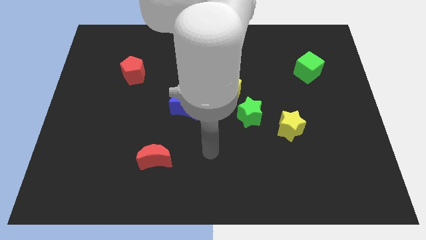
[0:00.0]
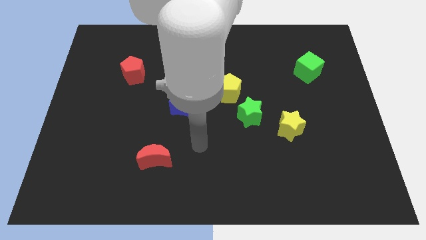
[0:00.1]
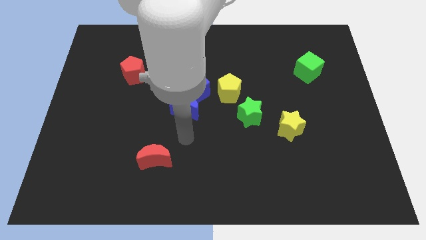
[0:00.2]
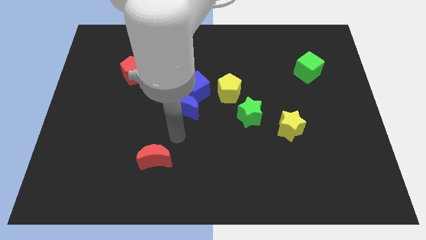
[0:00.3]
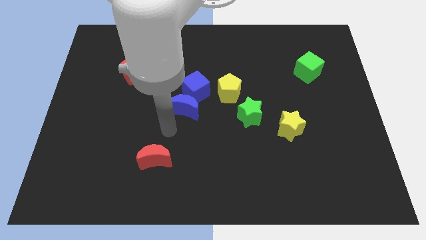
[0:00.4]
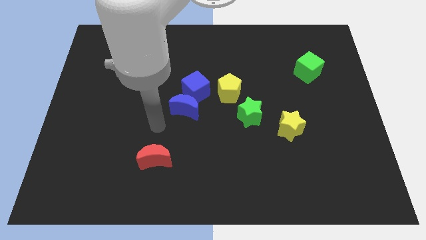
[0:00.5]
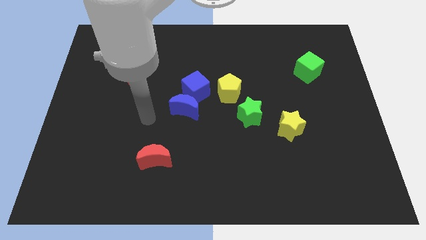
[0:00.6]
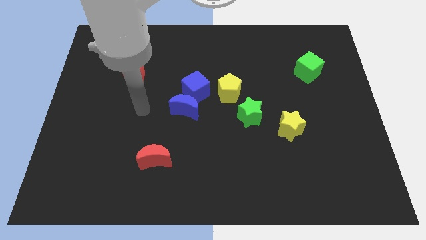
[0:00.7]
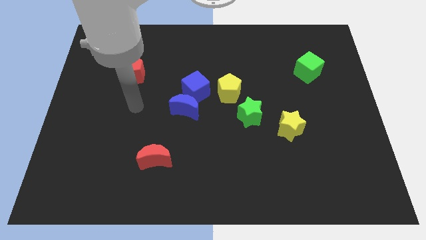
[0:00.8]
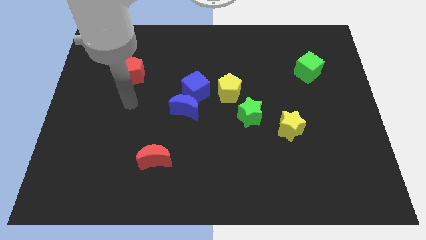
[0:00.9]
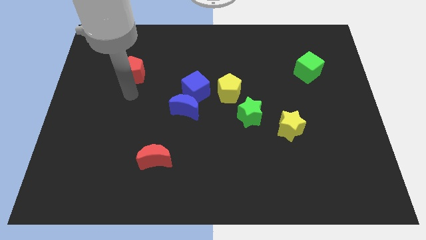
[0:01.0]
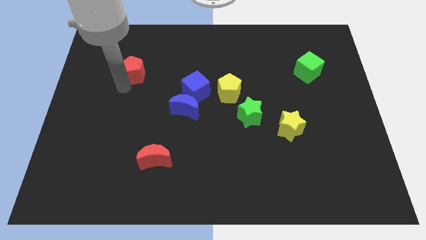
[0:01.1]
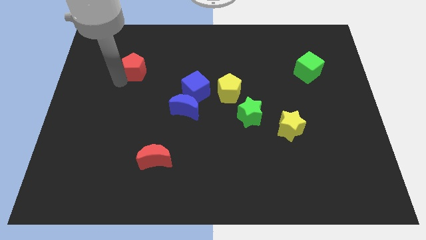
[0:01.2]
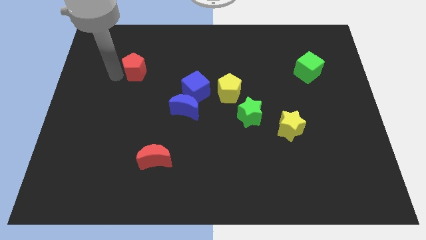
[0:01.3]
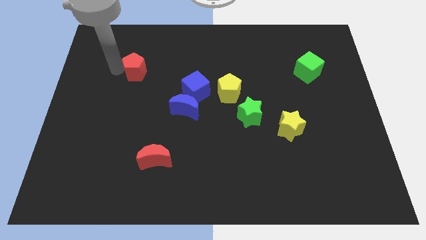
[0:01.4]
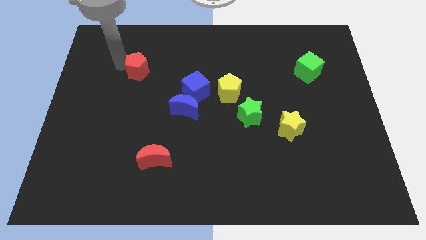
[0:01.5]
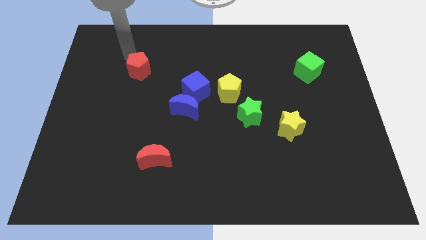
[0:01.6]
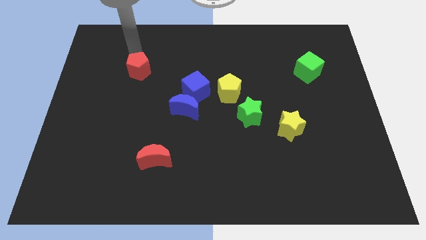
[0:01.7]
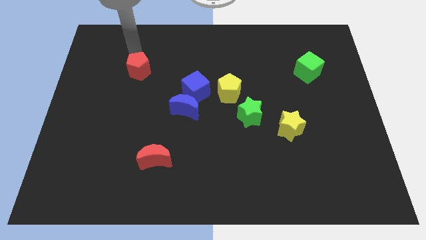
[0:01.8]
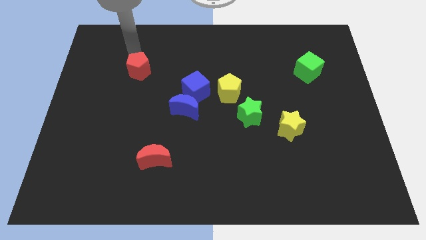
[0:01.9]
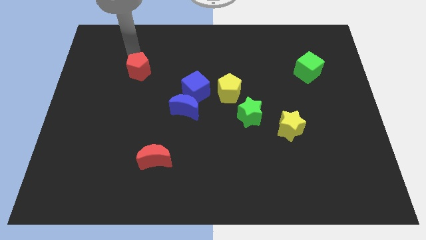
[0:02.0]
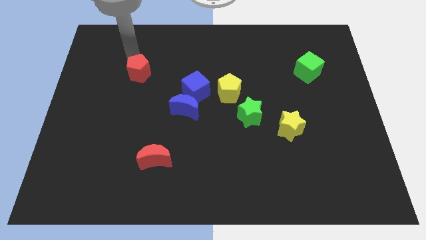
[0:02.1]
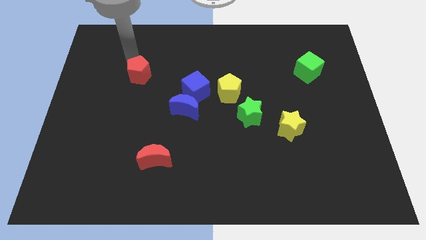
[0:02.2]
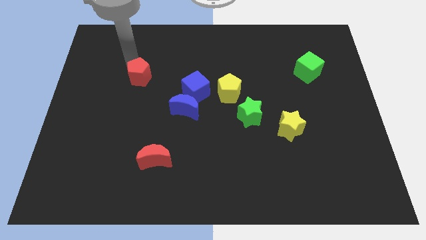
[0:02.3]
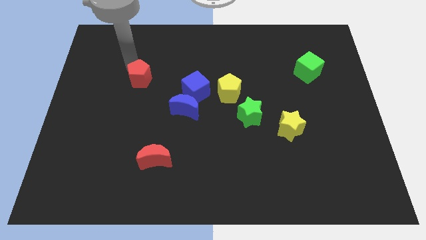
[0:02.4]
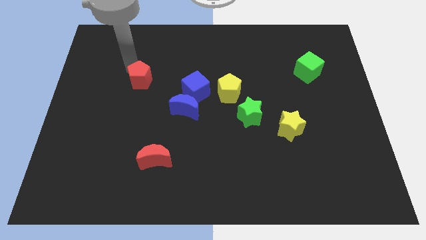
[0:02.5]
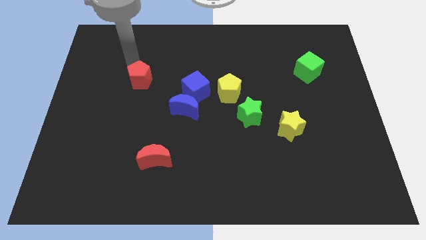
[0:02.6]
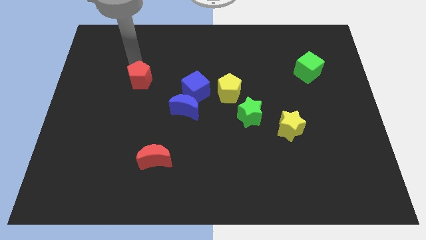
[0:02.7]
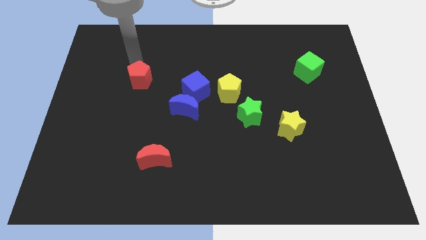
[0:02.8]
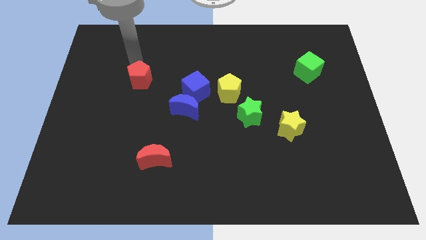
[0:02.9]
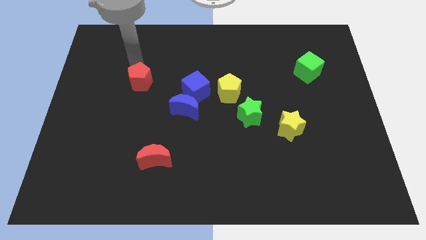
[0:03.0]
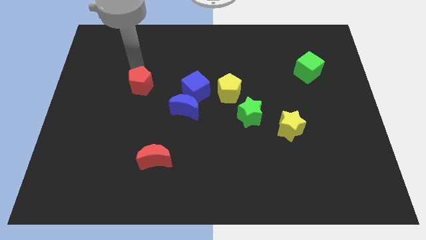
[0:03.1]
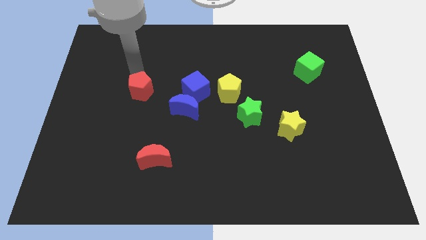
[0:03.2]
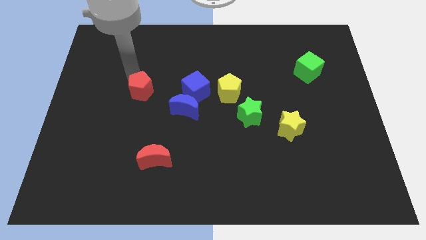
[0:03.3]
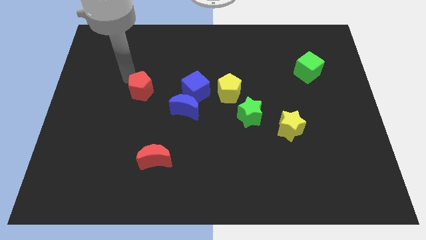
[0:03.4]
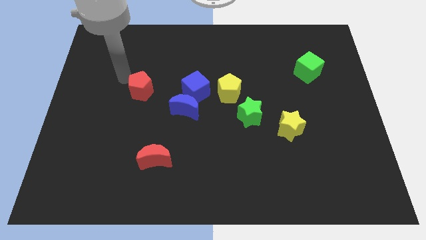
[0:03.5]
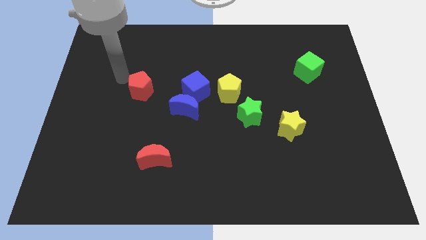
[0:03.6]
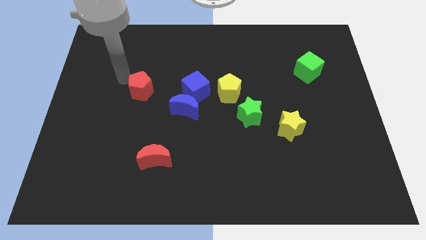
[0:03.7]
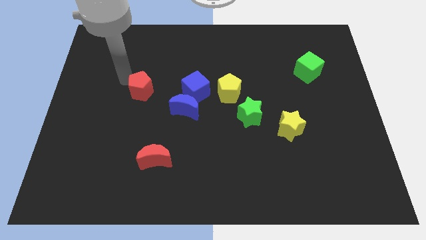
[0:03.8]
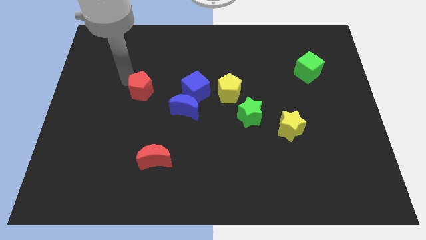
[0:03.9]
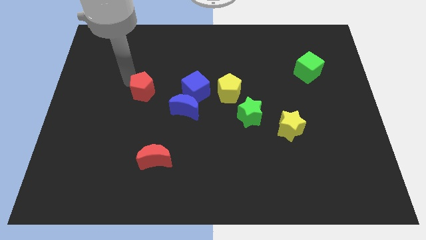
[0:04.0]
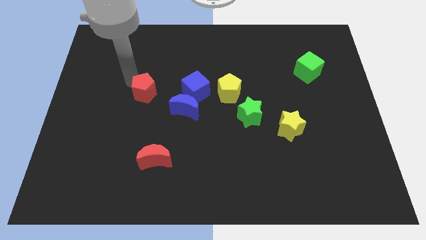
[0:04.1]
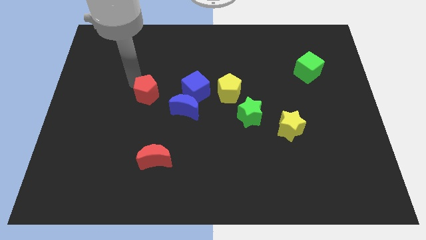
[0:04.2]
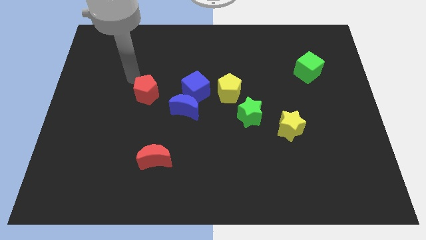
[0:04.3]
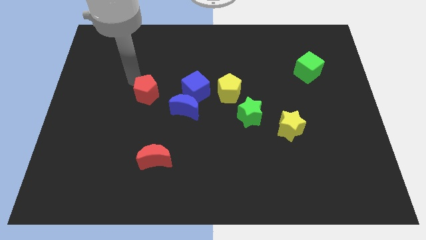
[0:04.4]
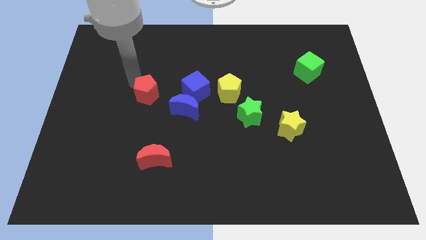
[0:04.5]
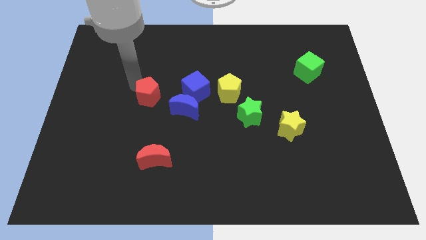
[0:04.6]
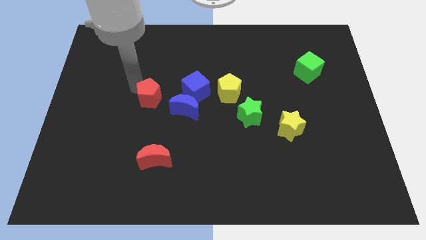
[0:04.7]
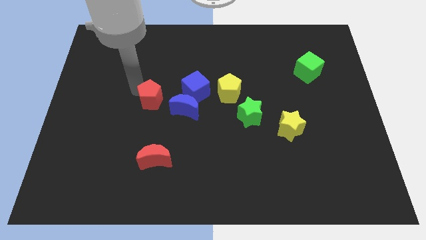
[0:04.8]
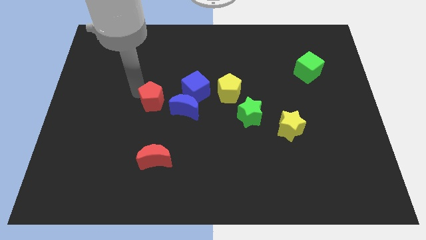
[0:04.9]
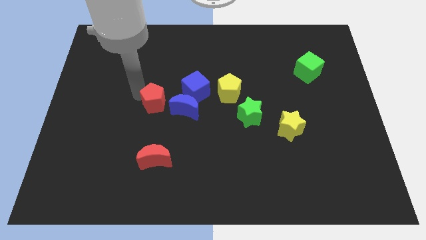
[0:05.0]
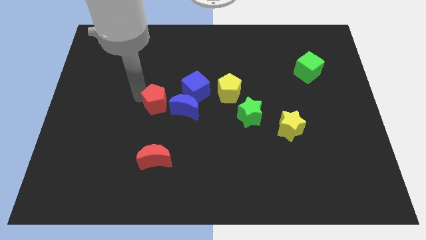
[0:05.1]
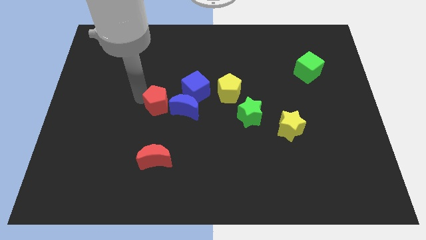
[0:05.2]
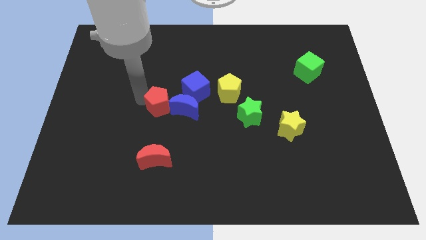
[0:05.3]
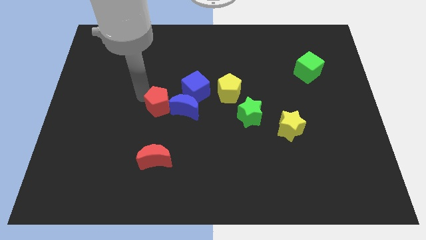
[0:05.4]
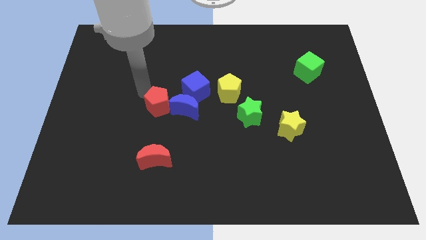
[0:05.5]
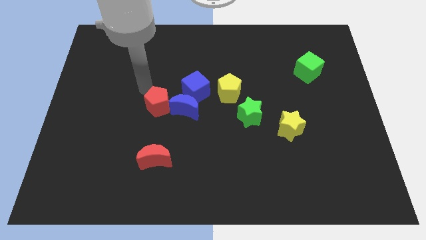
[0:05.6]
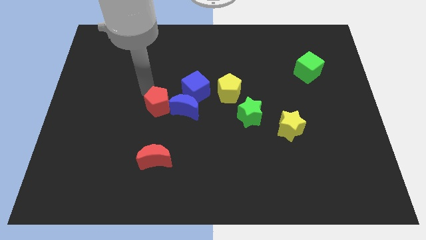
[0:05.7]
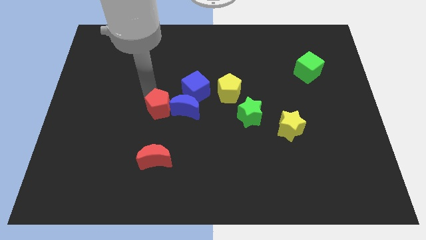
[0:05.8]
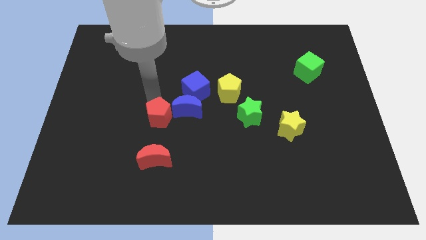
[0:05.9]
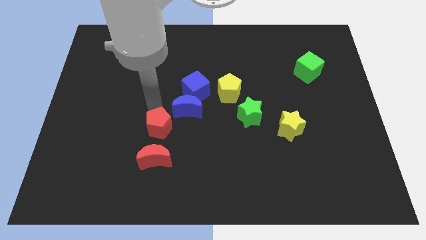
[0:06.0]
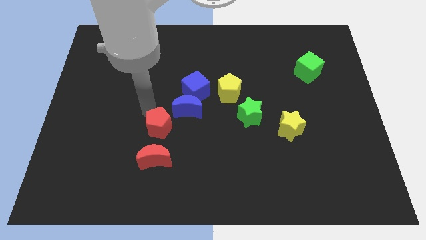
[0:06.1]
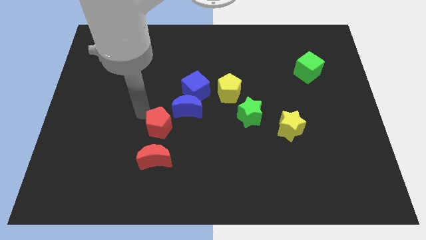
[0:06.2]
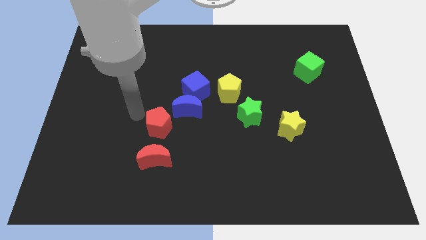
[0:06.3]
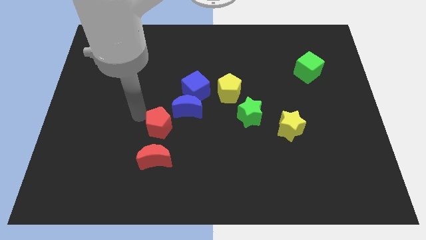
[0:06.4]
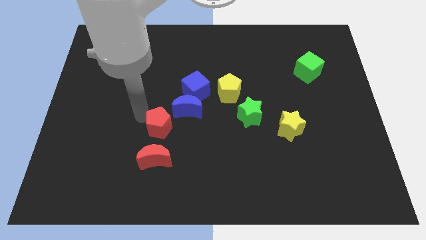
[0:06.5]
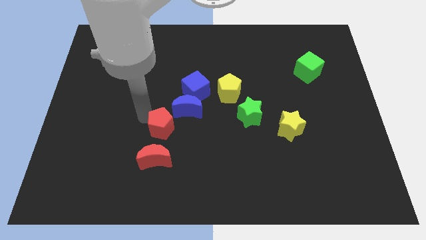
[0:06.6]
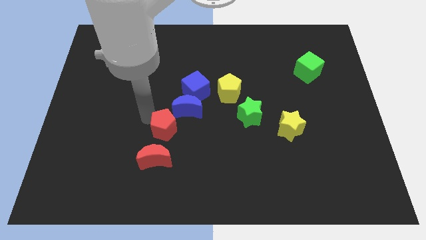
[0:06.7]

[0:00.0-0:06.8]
slide the red pentagon to the top right of the red moon
